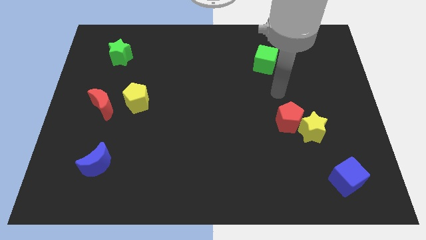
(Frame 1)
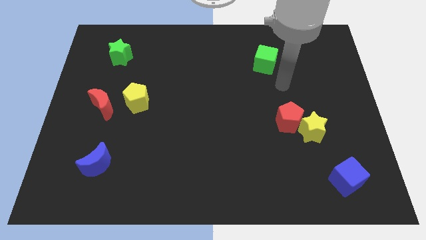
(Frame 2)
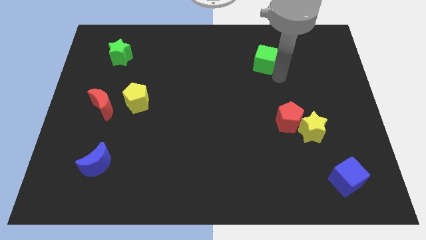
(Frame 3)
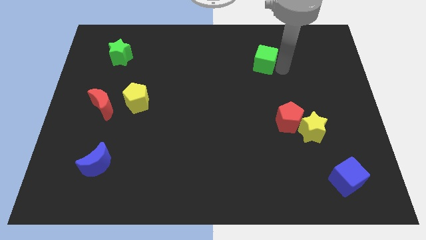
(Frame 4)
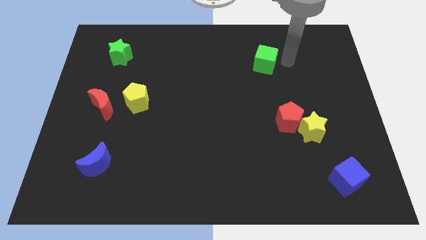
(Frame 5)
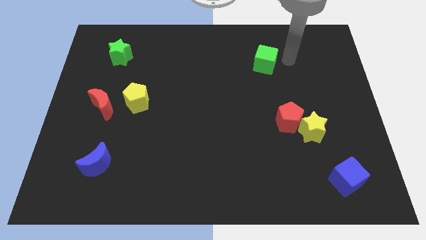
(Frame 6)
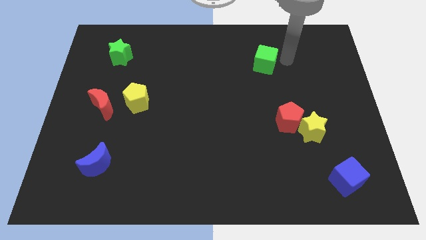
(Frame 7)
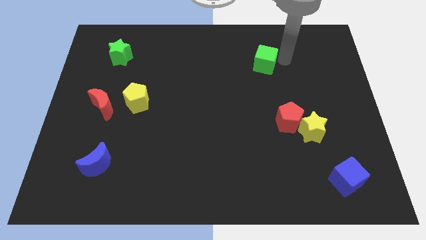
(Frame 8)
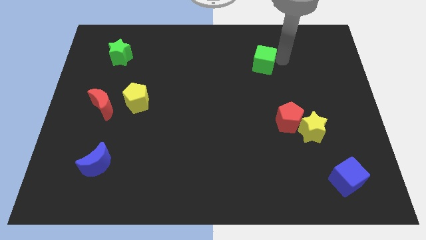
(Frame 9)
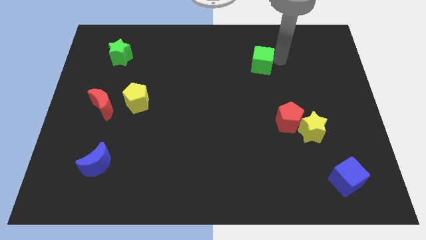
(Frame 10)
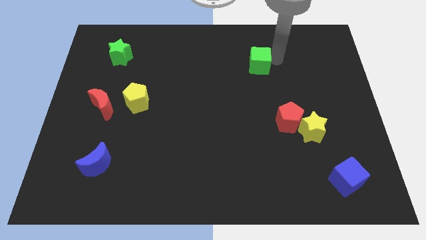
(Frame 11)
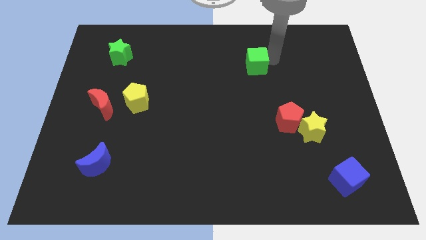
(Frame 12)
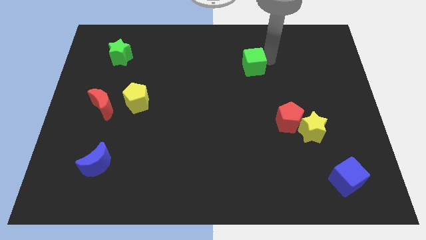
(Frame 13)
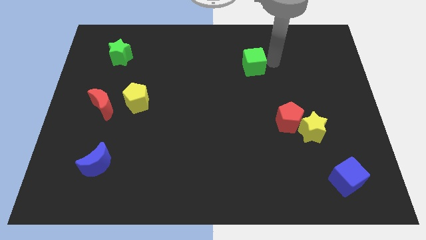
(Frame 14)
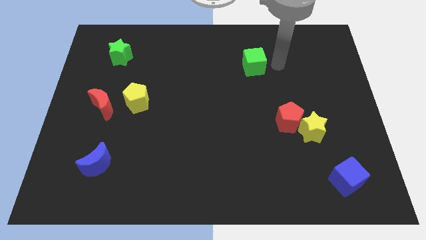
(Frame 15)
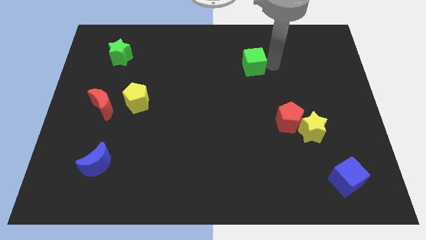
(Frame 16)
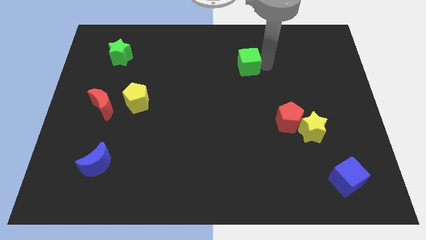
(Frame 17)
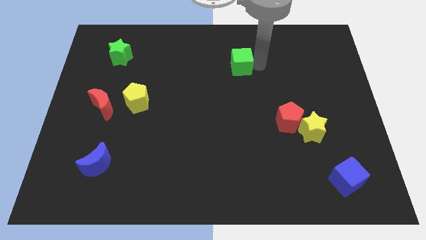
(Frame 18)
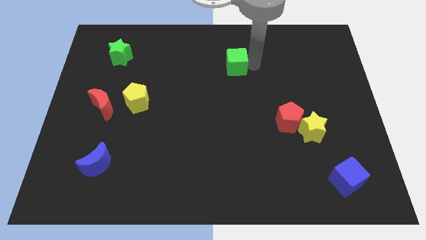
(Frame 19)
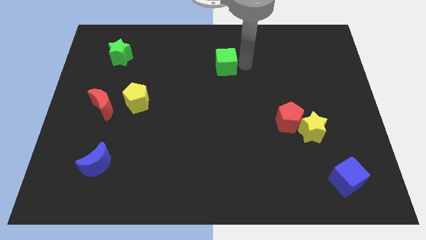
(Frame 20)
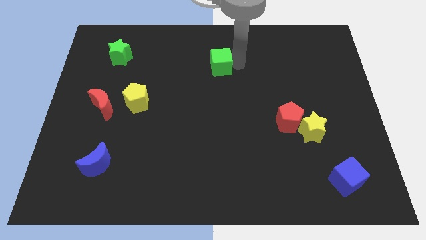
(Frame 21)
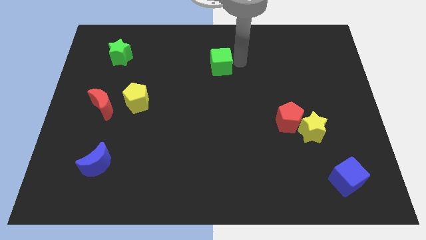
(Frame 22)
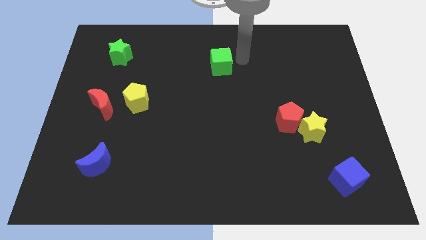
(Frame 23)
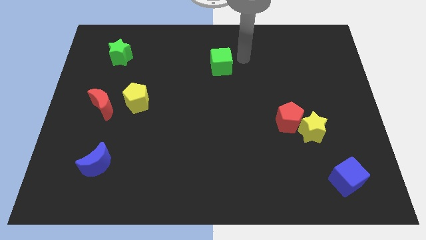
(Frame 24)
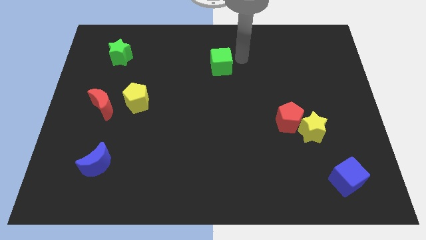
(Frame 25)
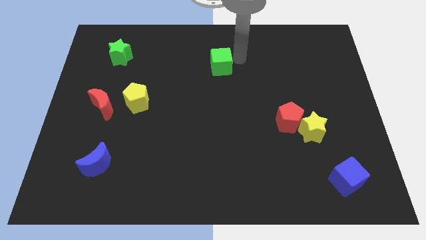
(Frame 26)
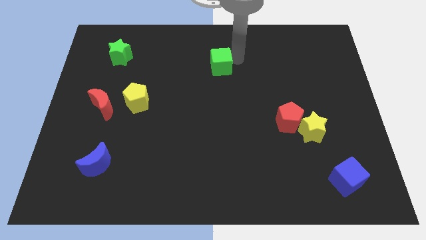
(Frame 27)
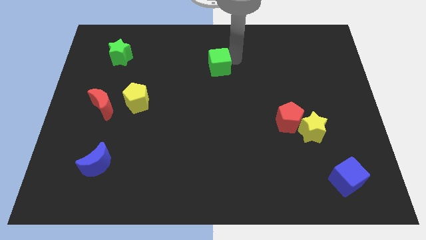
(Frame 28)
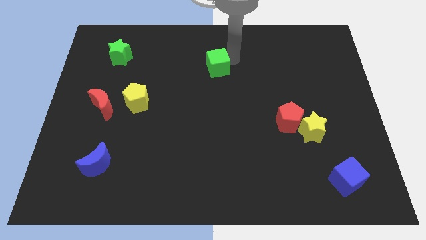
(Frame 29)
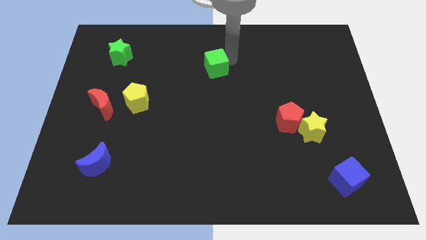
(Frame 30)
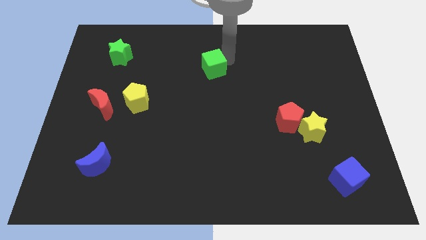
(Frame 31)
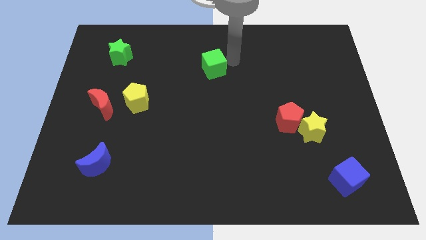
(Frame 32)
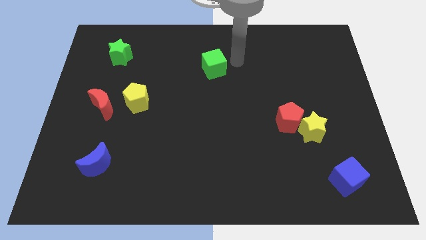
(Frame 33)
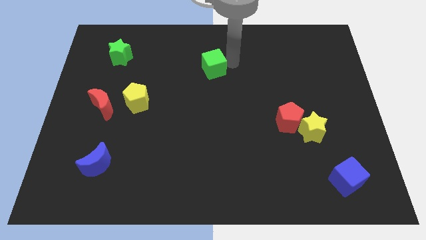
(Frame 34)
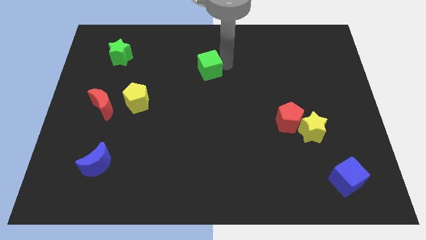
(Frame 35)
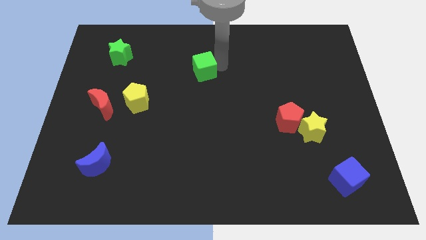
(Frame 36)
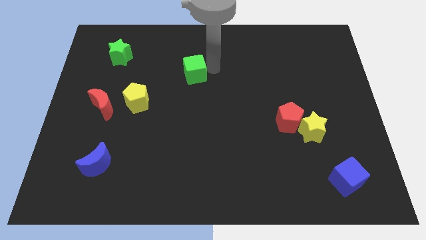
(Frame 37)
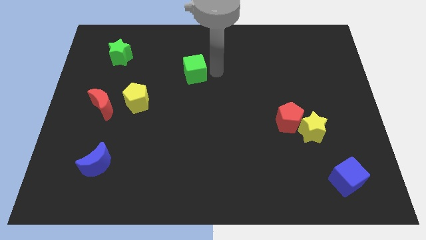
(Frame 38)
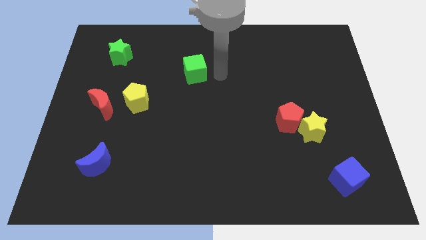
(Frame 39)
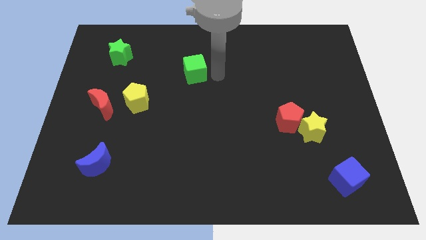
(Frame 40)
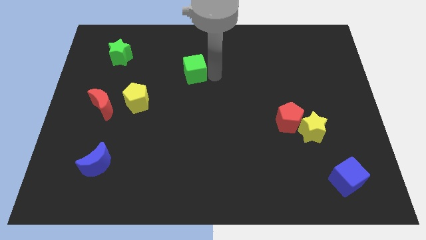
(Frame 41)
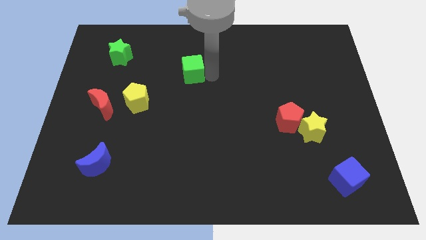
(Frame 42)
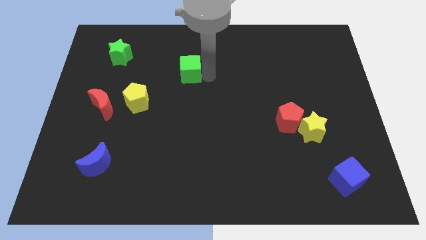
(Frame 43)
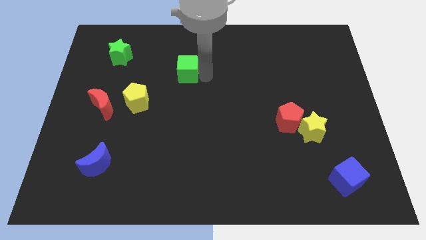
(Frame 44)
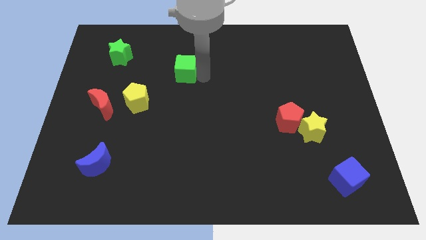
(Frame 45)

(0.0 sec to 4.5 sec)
push the green cube left

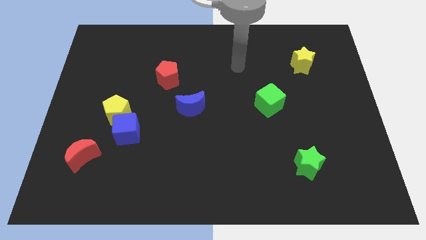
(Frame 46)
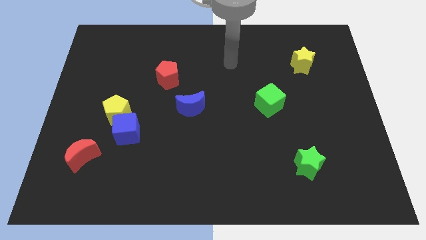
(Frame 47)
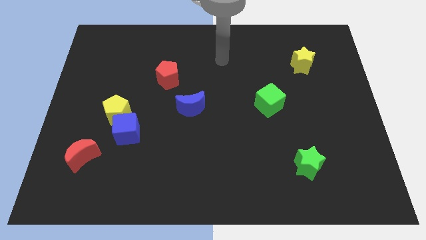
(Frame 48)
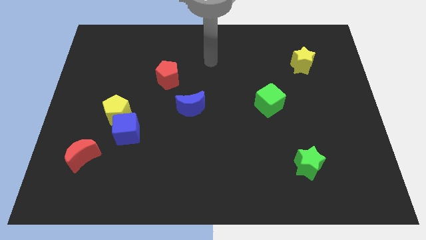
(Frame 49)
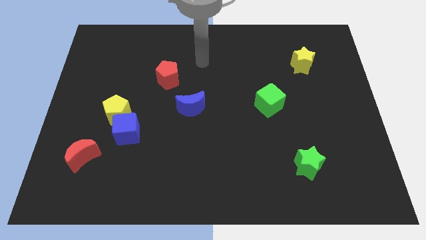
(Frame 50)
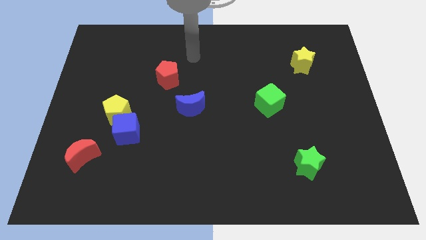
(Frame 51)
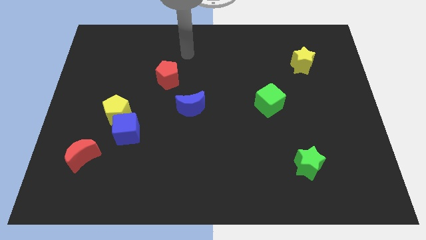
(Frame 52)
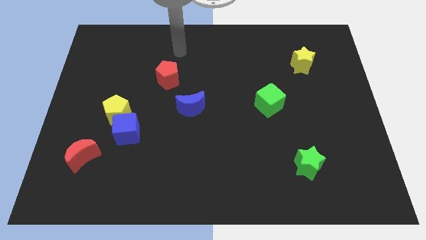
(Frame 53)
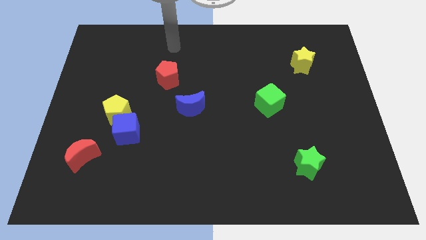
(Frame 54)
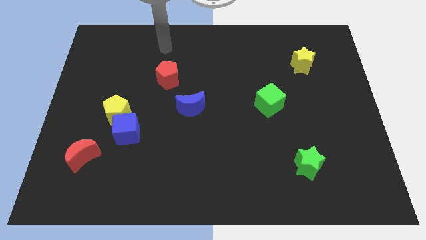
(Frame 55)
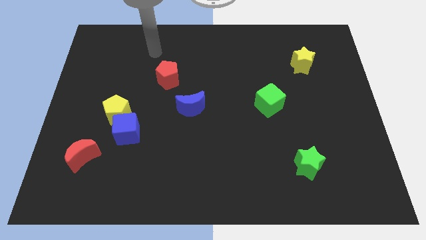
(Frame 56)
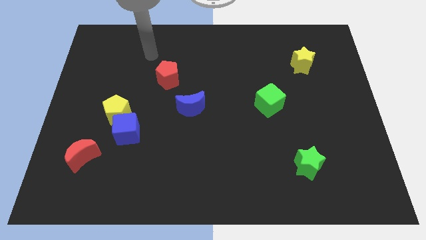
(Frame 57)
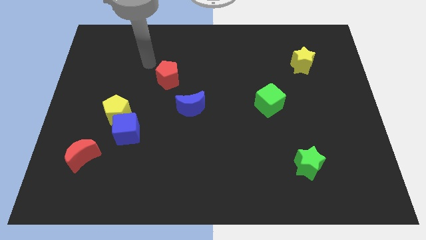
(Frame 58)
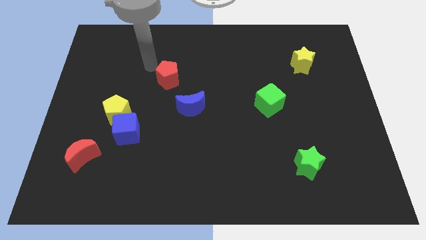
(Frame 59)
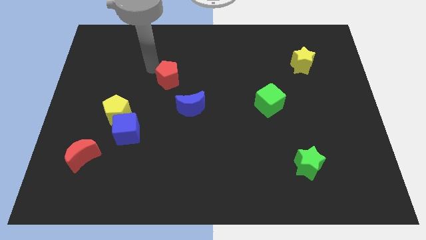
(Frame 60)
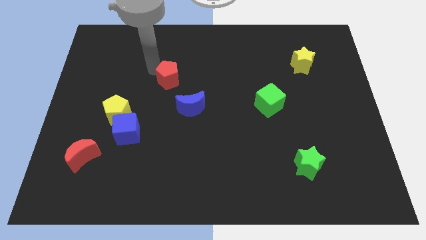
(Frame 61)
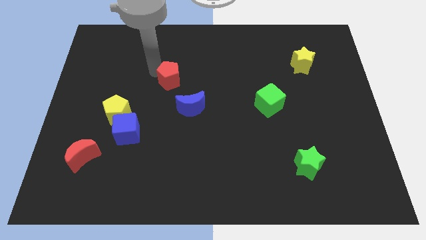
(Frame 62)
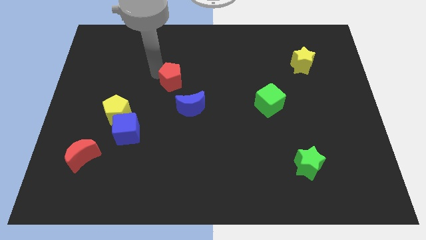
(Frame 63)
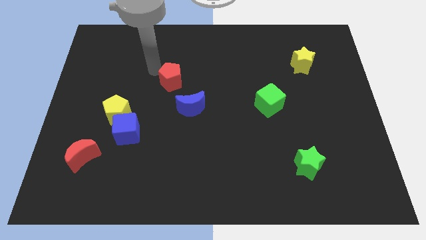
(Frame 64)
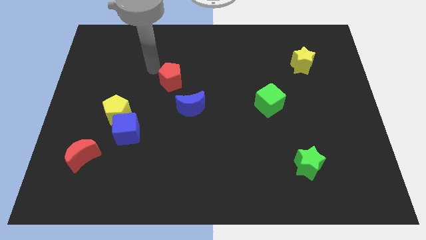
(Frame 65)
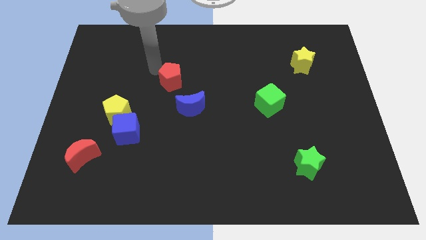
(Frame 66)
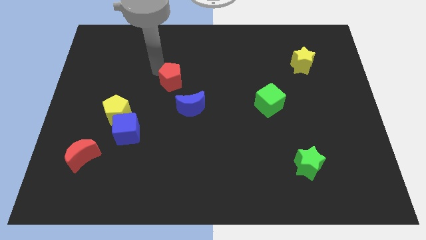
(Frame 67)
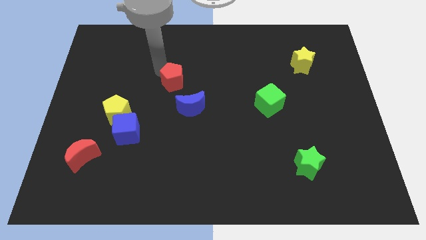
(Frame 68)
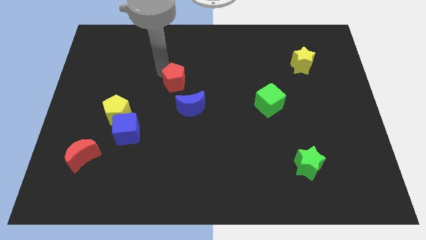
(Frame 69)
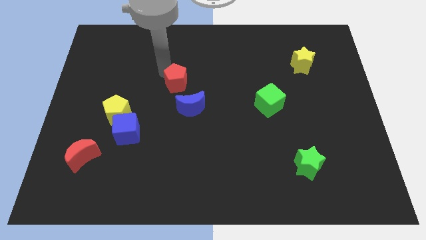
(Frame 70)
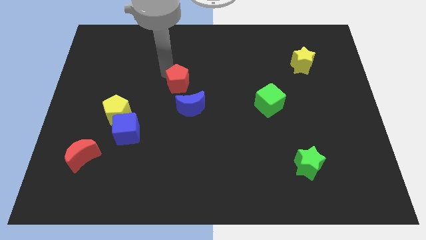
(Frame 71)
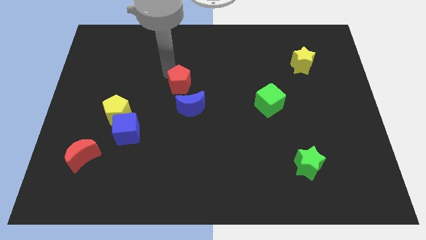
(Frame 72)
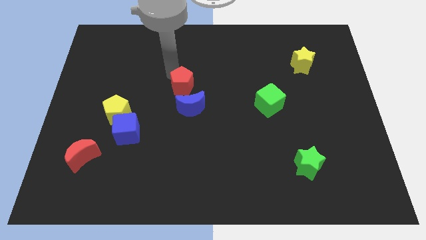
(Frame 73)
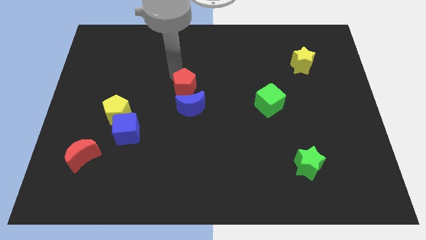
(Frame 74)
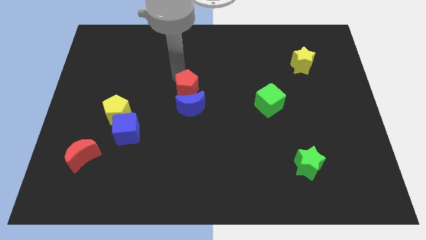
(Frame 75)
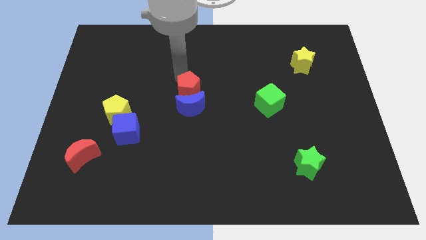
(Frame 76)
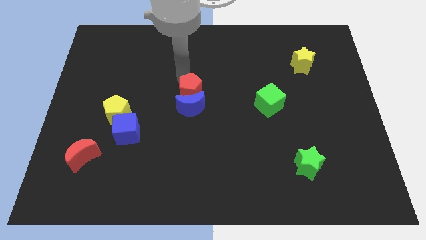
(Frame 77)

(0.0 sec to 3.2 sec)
slide the red pentagon a bit down and right

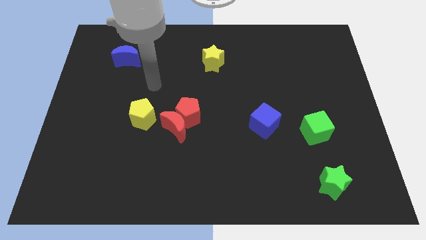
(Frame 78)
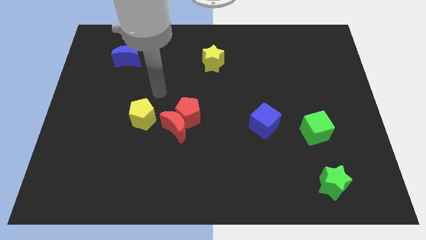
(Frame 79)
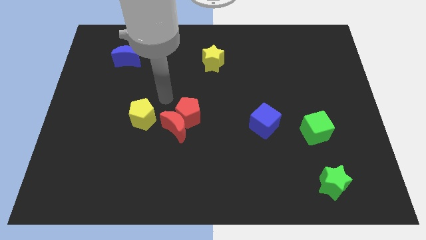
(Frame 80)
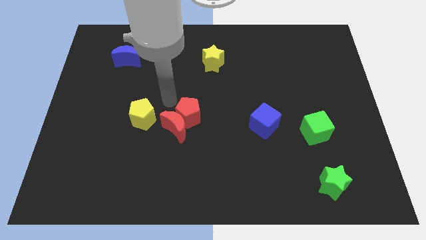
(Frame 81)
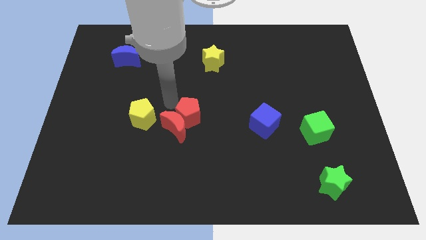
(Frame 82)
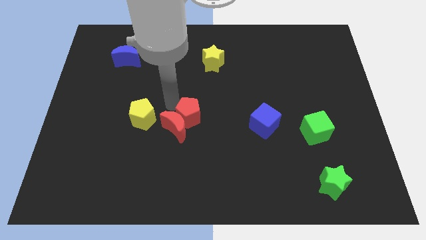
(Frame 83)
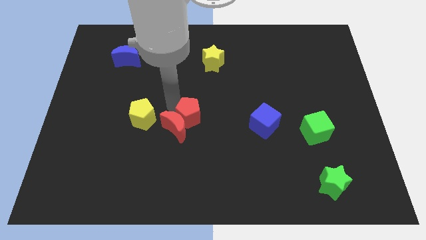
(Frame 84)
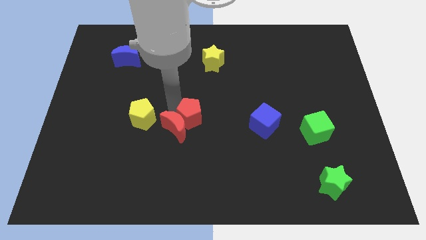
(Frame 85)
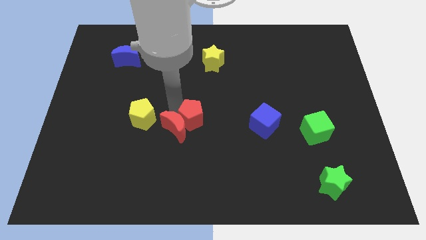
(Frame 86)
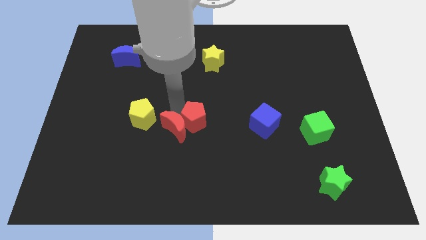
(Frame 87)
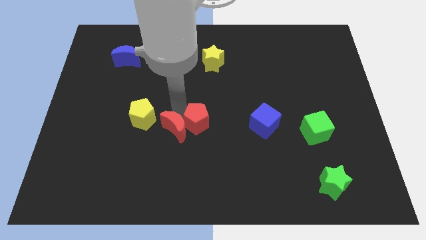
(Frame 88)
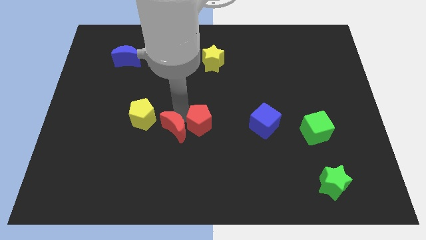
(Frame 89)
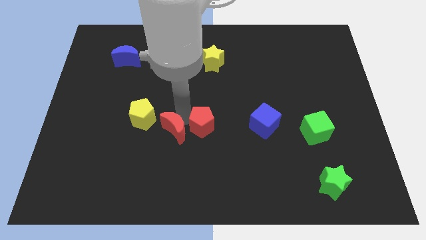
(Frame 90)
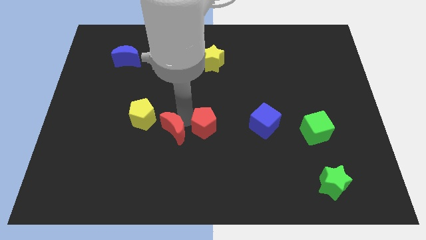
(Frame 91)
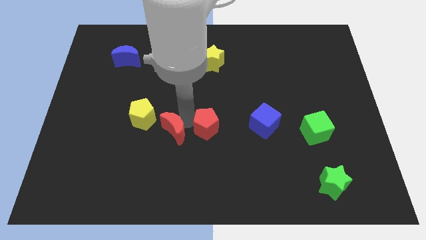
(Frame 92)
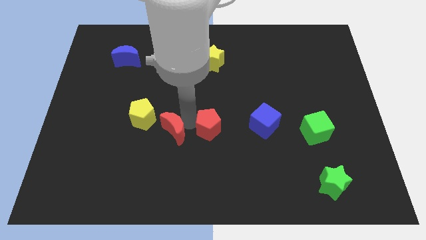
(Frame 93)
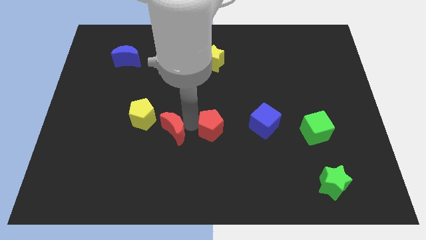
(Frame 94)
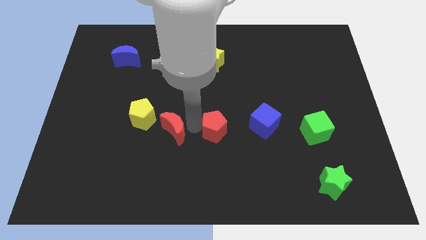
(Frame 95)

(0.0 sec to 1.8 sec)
move the red pentagon a little downwards and then right
